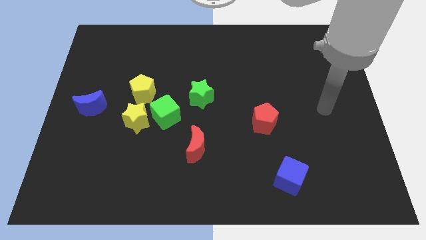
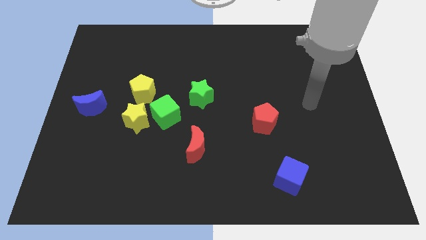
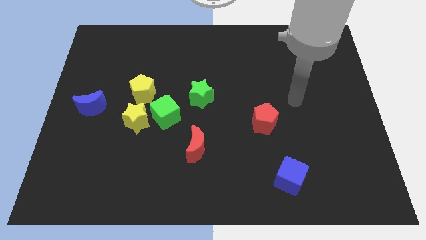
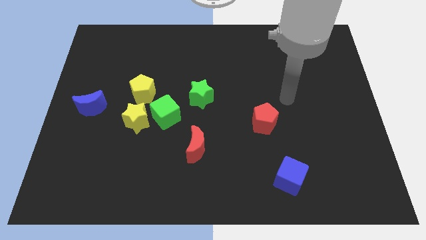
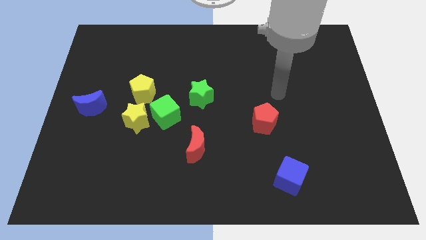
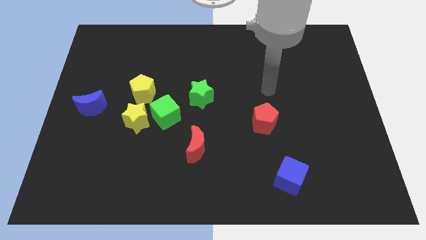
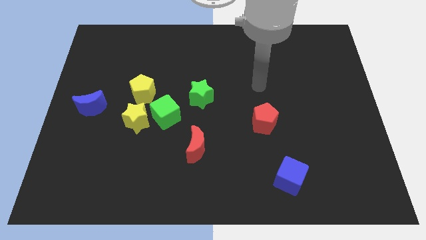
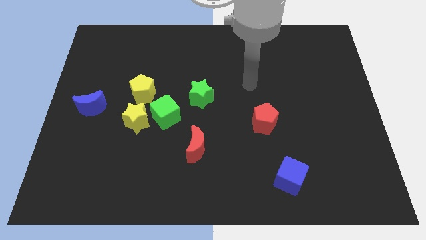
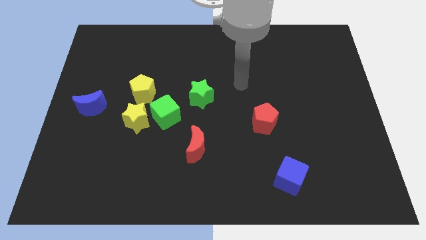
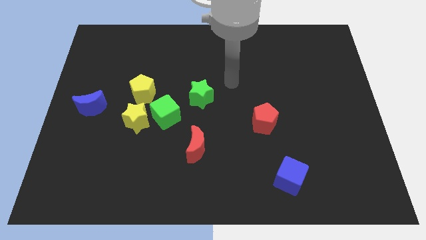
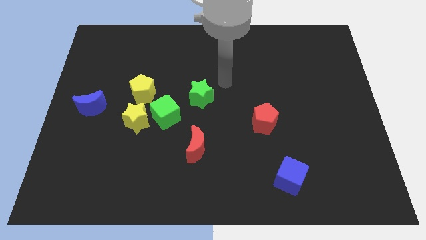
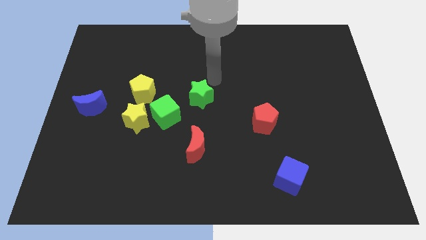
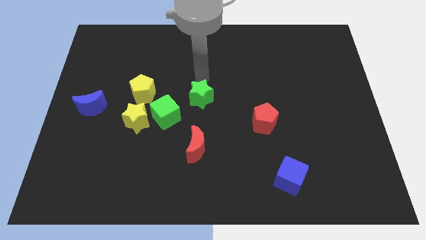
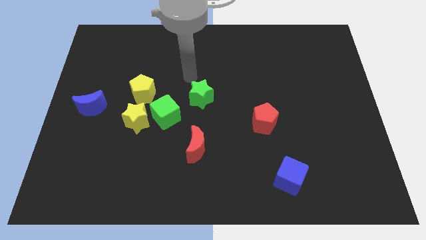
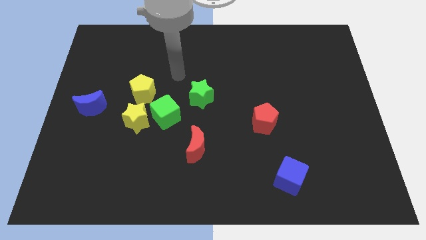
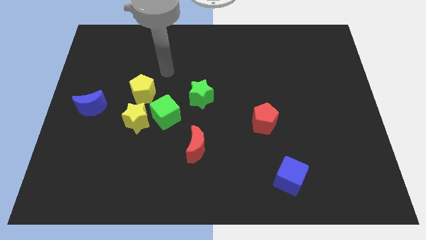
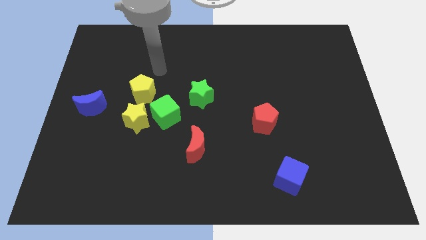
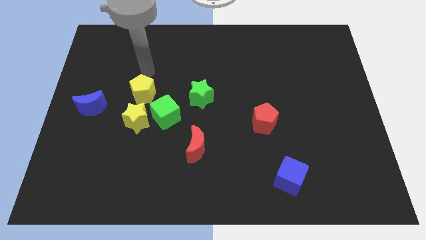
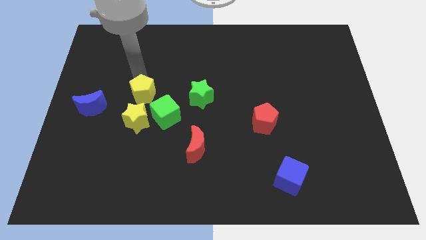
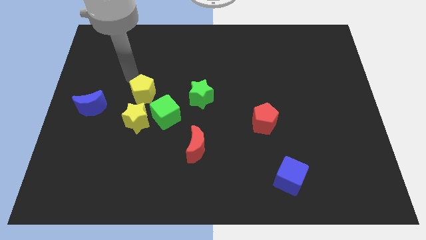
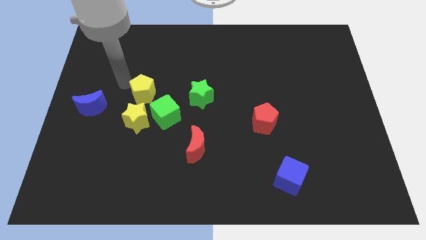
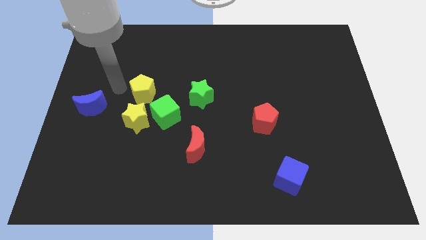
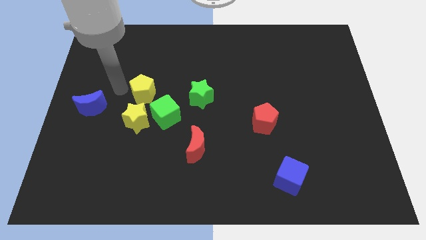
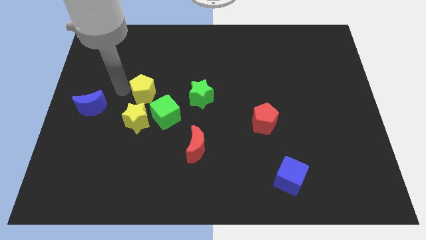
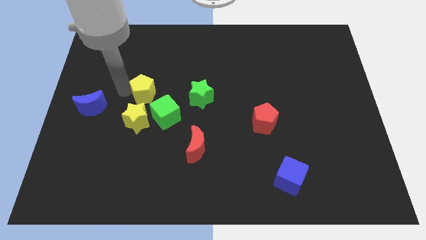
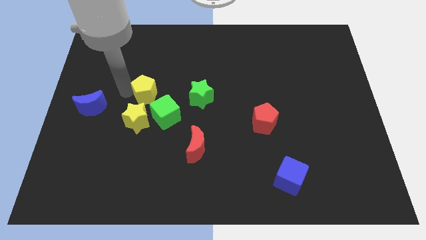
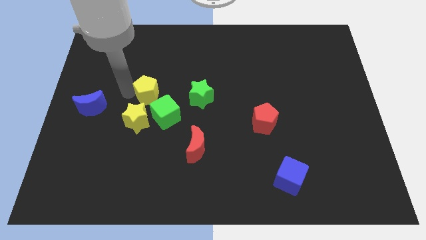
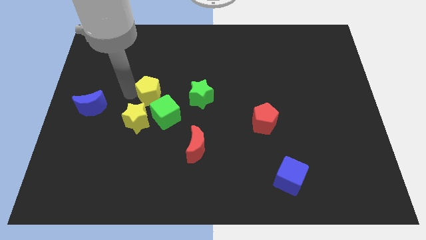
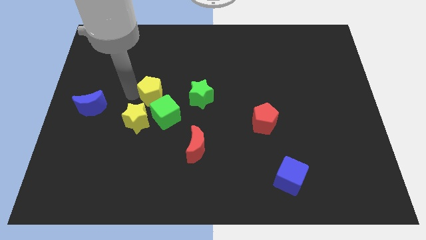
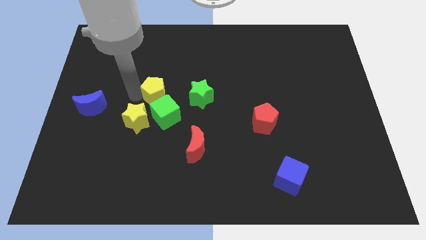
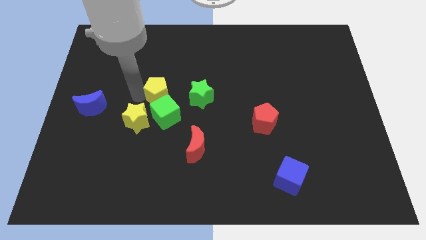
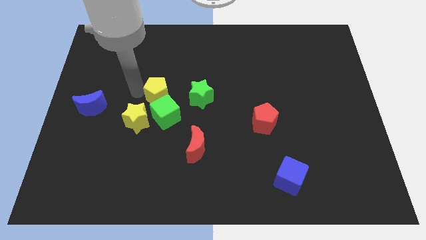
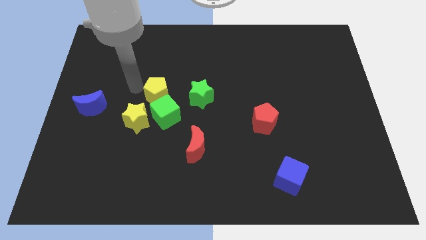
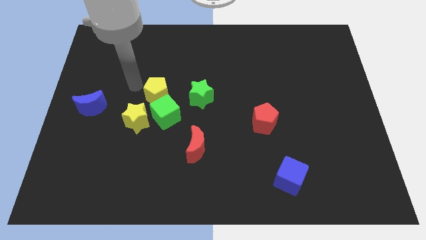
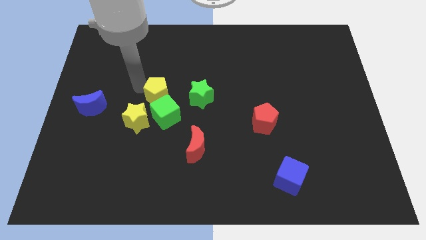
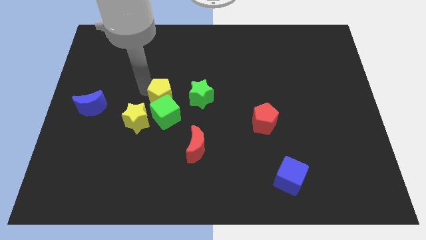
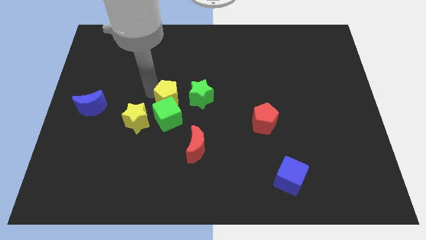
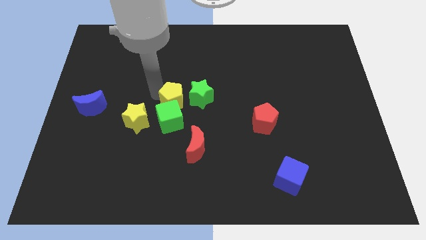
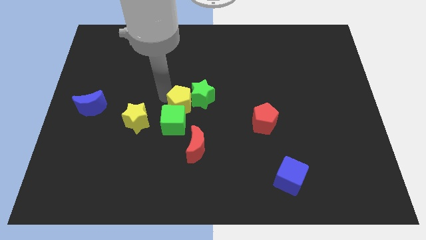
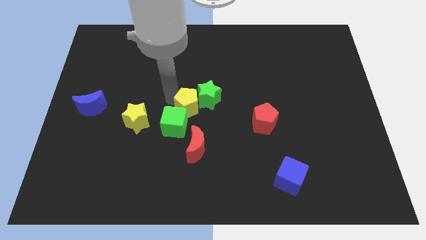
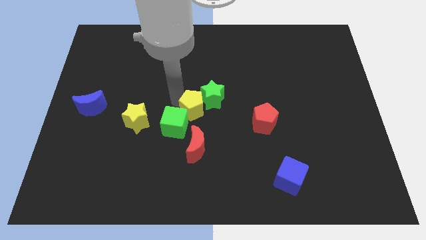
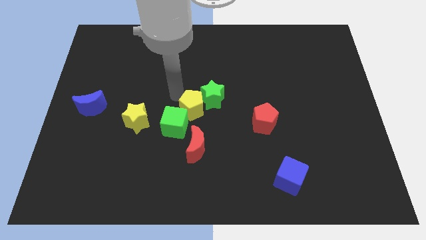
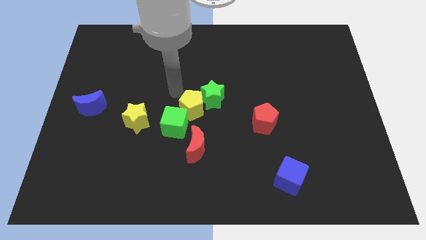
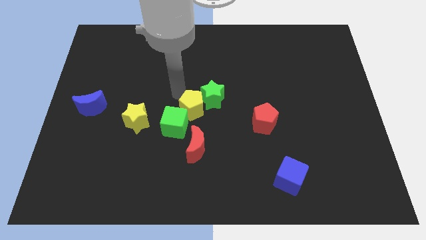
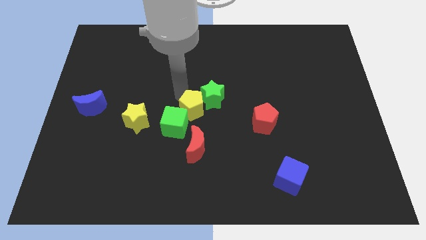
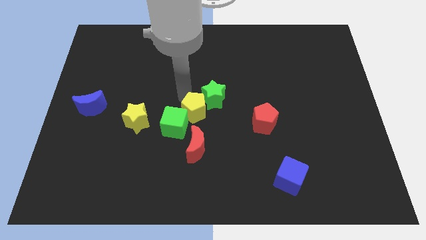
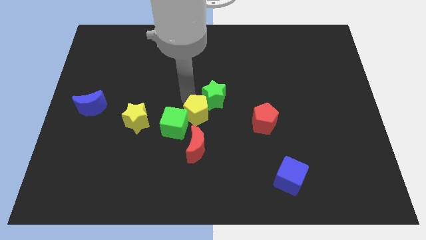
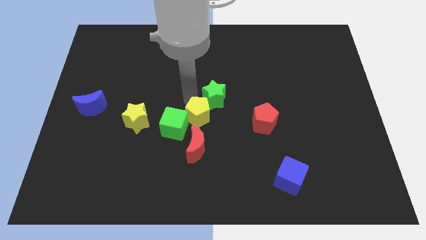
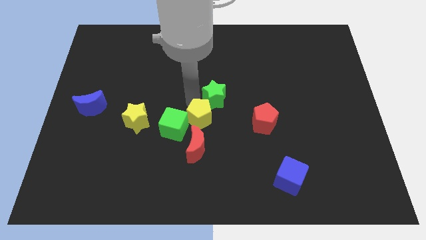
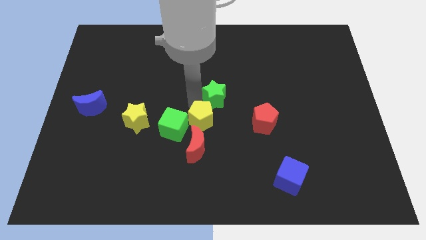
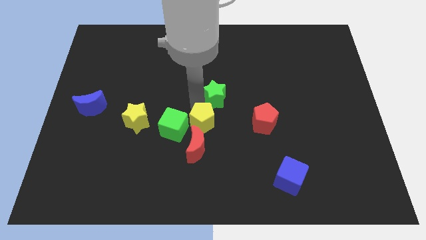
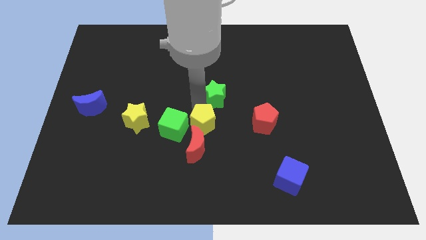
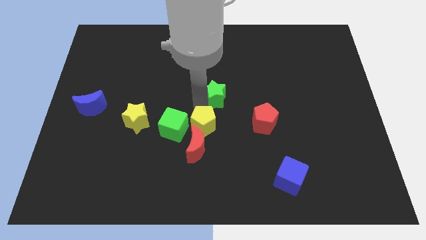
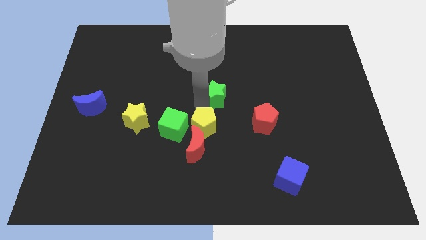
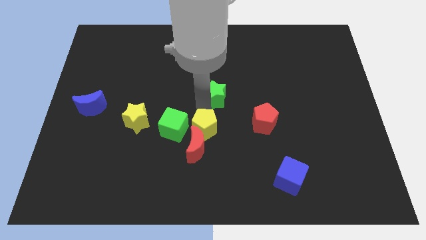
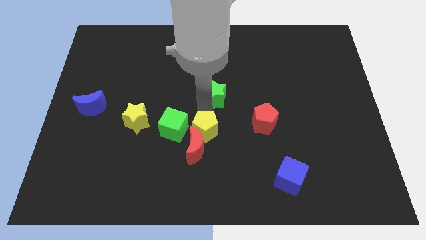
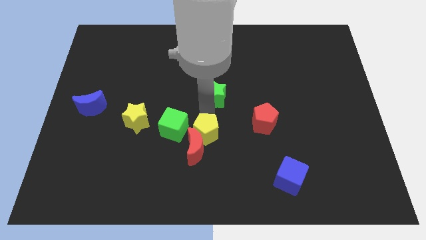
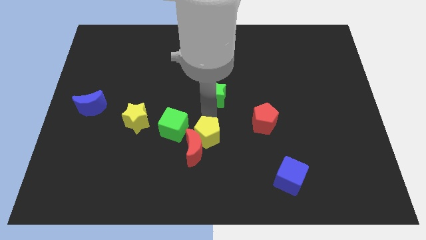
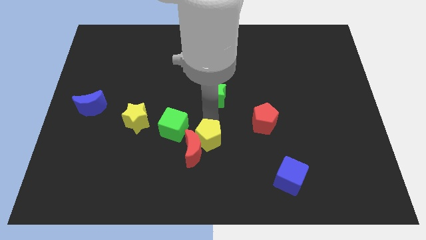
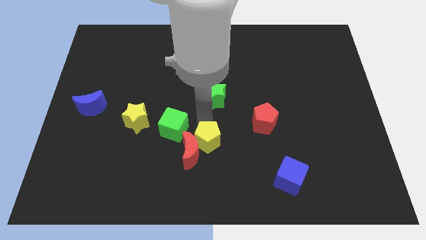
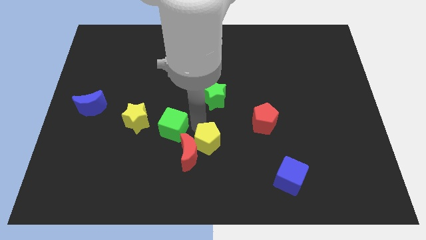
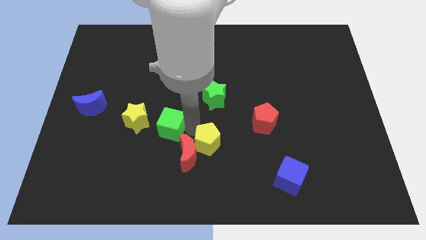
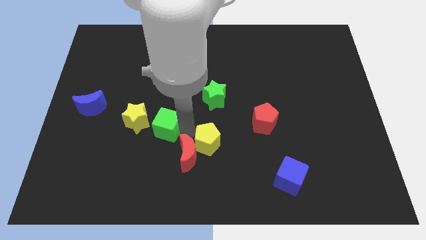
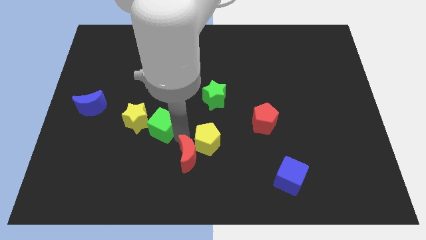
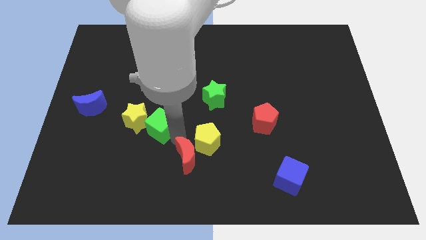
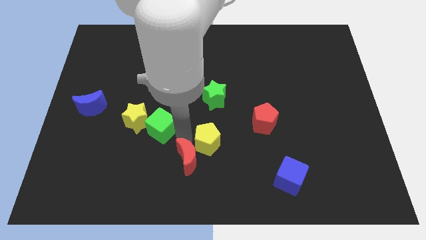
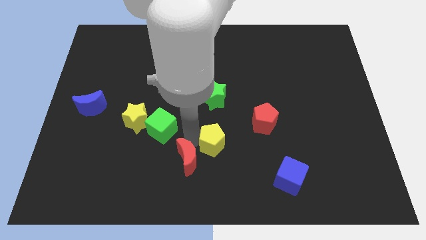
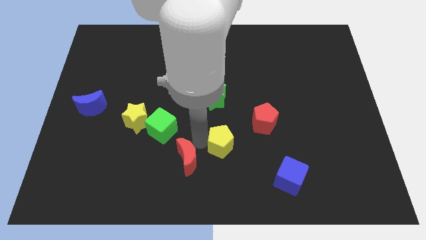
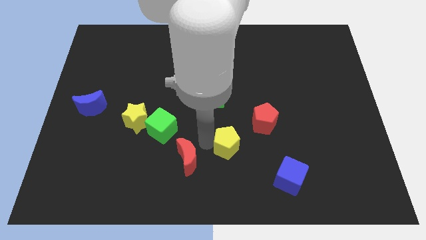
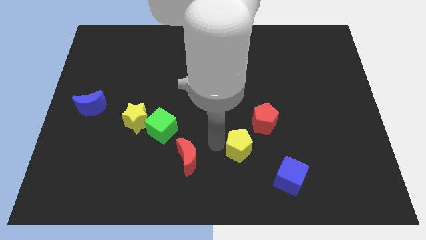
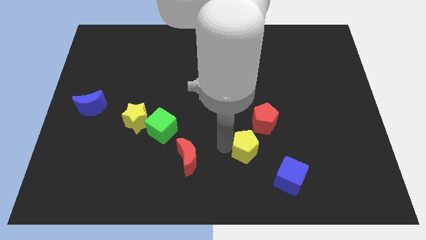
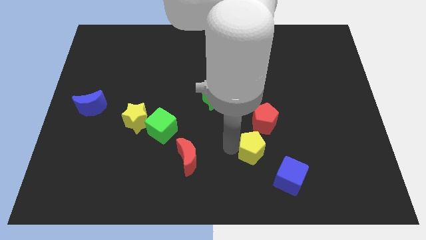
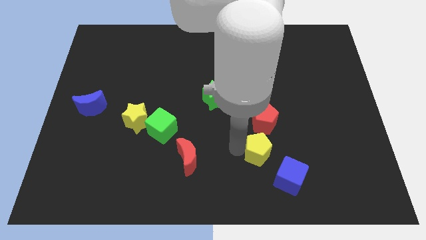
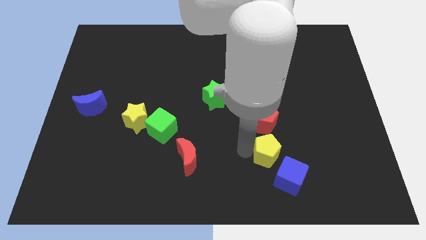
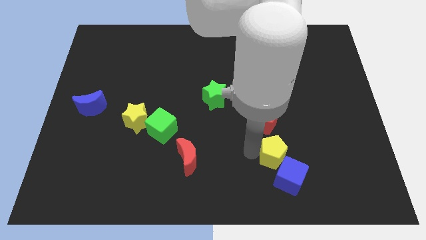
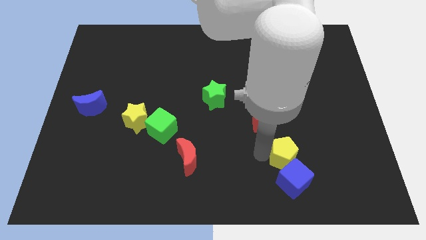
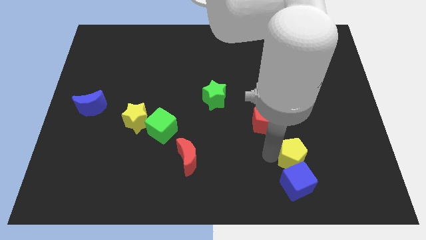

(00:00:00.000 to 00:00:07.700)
push the yellow pentagon to the top right of the blue cube
